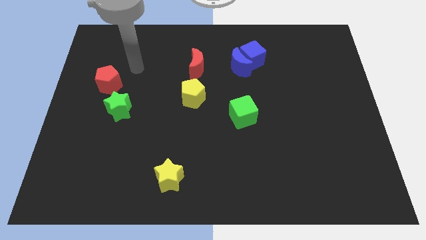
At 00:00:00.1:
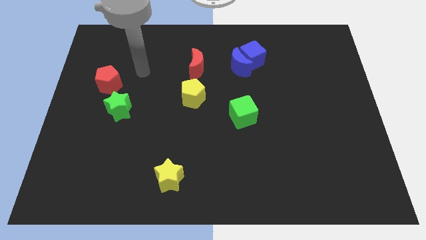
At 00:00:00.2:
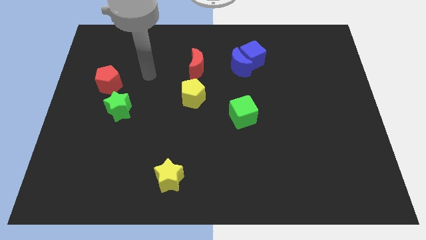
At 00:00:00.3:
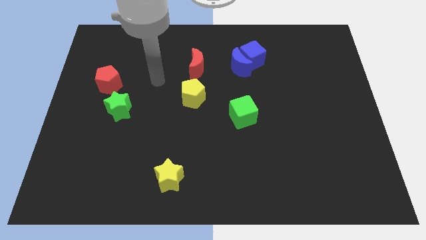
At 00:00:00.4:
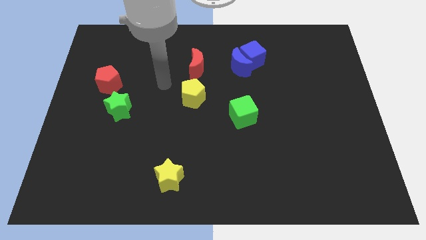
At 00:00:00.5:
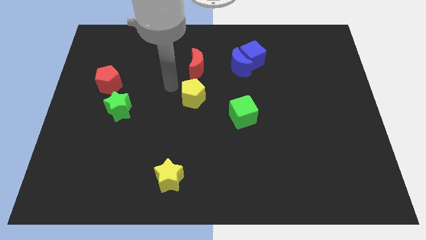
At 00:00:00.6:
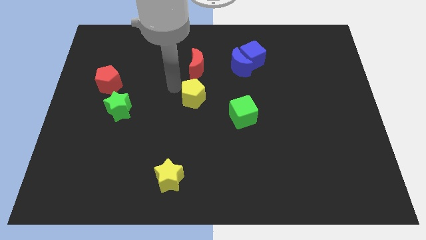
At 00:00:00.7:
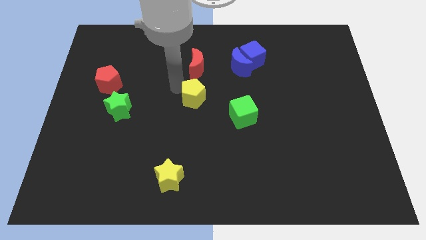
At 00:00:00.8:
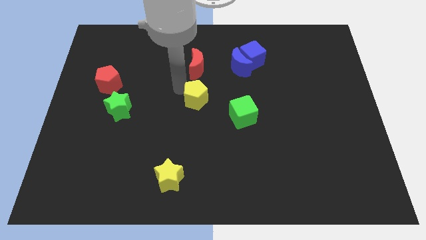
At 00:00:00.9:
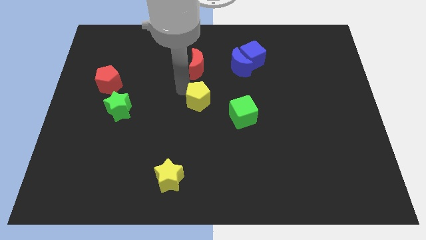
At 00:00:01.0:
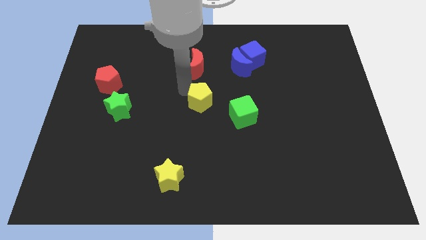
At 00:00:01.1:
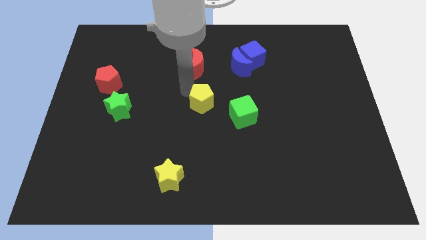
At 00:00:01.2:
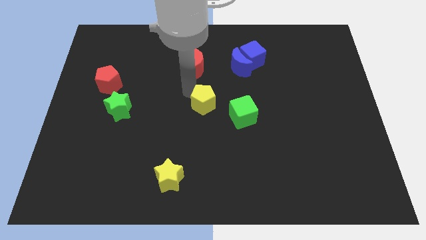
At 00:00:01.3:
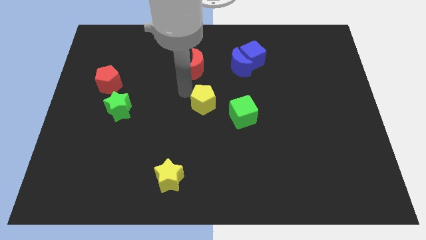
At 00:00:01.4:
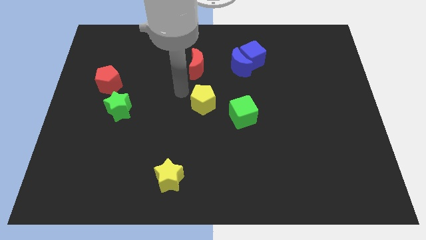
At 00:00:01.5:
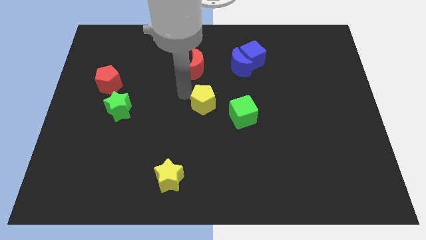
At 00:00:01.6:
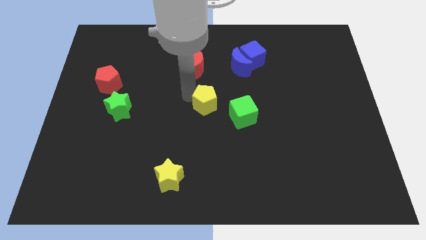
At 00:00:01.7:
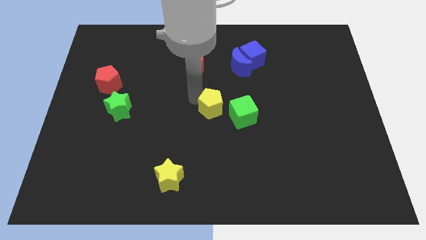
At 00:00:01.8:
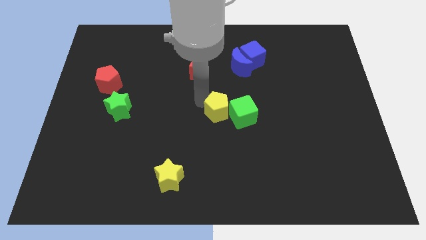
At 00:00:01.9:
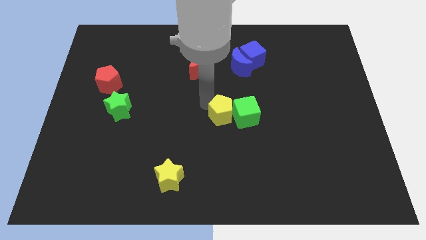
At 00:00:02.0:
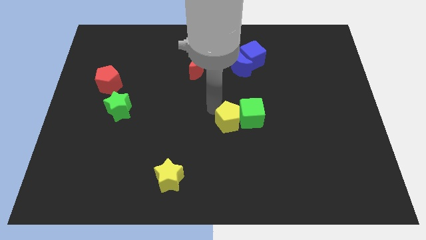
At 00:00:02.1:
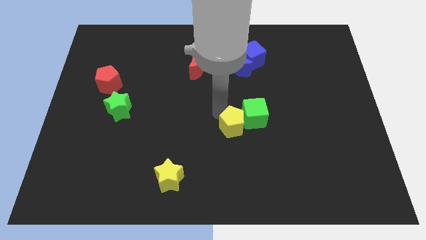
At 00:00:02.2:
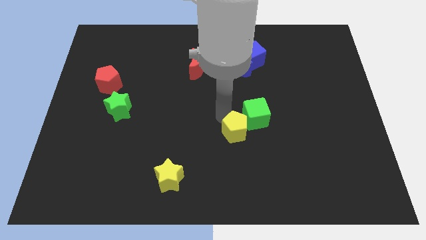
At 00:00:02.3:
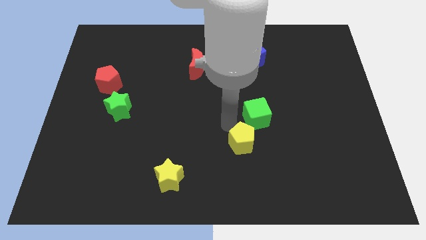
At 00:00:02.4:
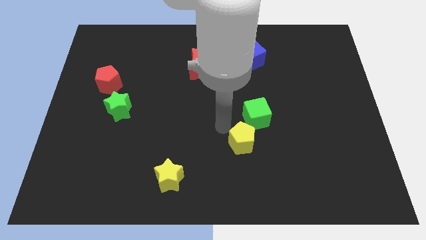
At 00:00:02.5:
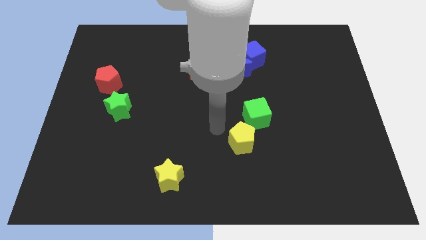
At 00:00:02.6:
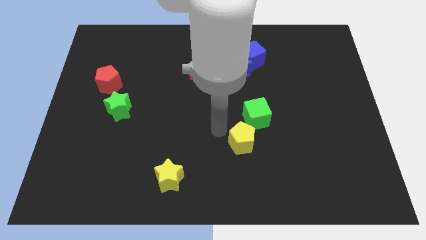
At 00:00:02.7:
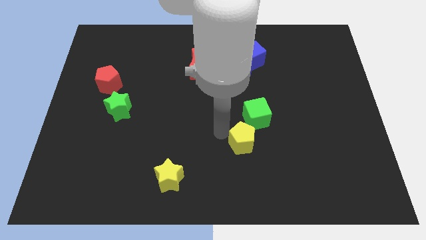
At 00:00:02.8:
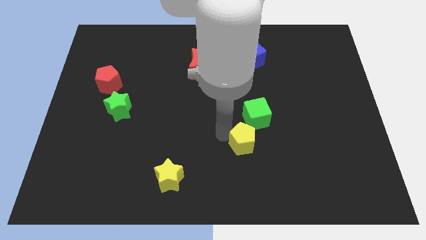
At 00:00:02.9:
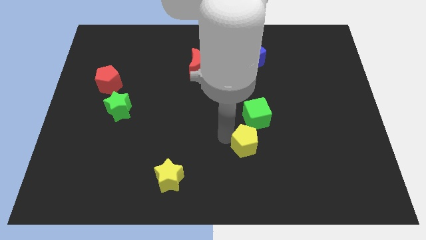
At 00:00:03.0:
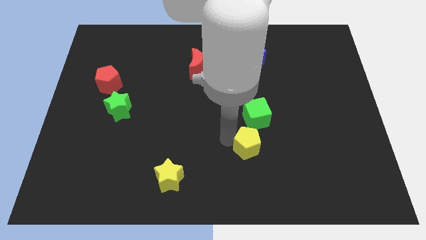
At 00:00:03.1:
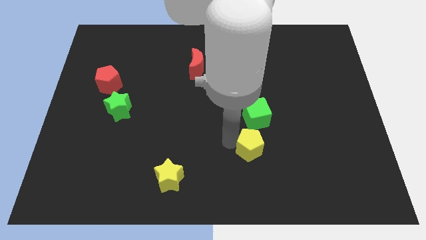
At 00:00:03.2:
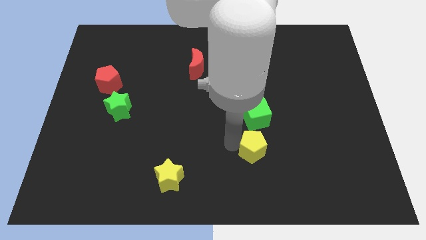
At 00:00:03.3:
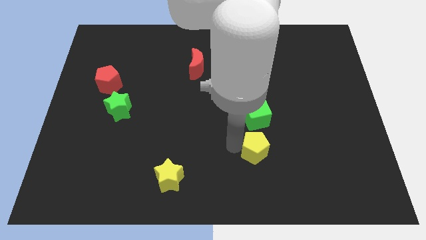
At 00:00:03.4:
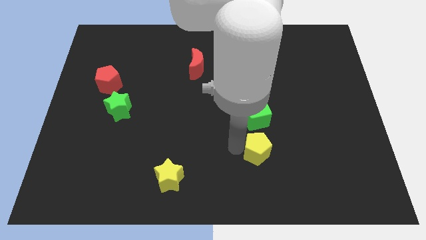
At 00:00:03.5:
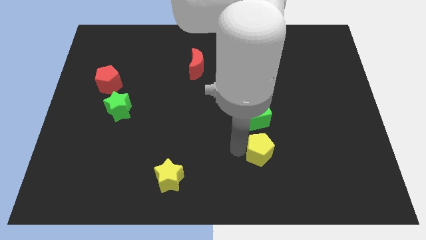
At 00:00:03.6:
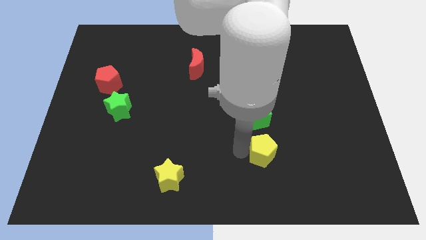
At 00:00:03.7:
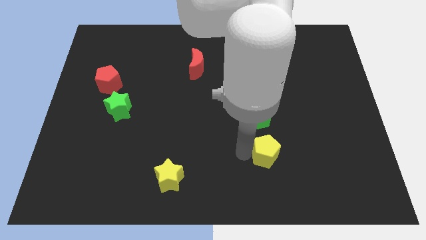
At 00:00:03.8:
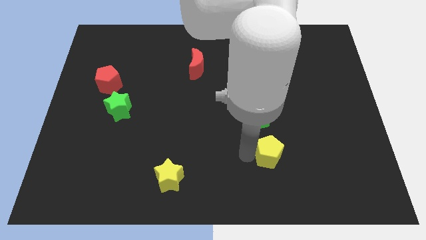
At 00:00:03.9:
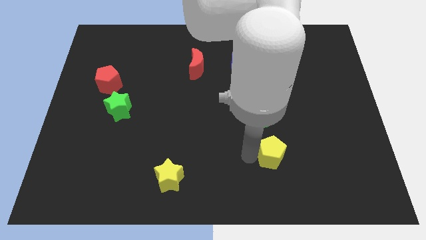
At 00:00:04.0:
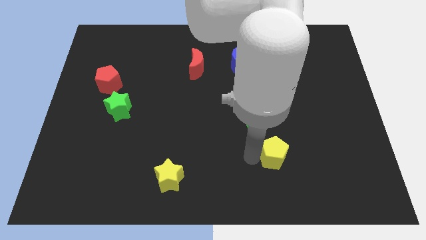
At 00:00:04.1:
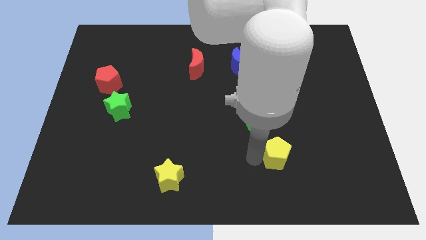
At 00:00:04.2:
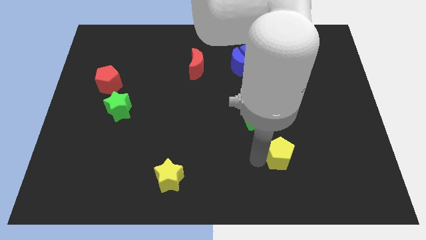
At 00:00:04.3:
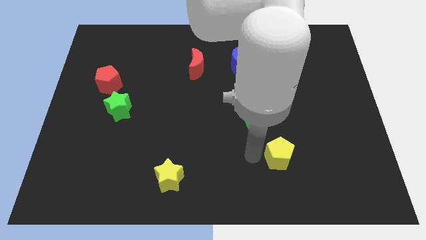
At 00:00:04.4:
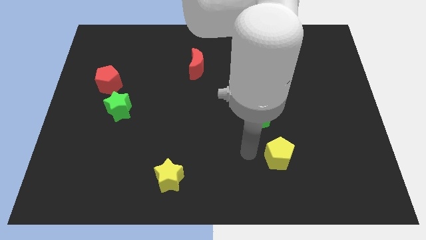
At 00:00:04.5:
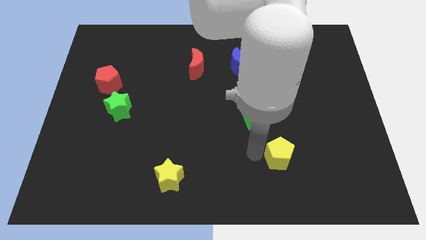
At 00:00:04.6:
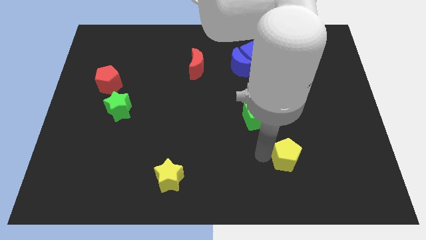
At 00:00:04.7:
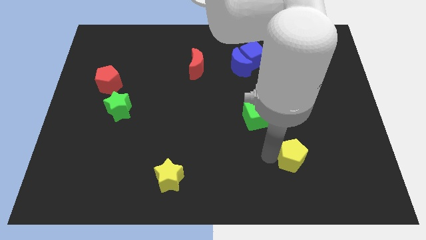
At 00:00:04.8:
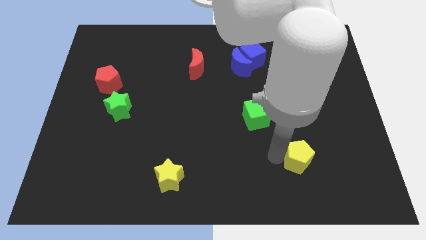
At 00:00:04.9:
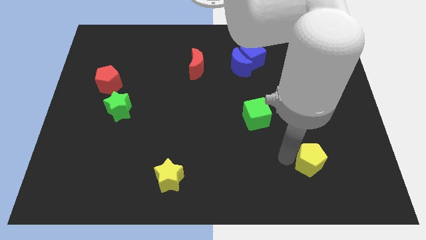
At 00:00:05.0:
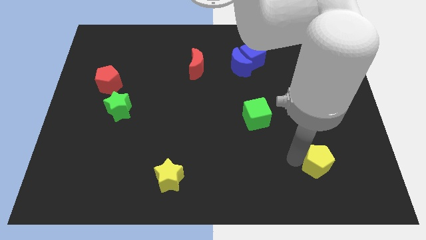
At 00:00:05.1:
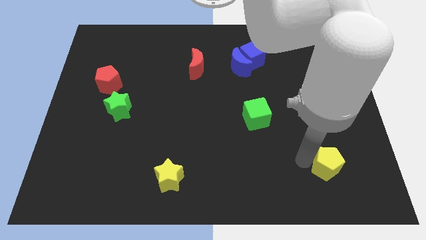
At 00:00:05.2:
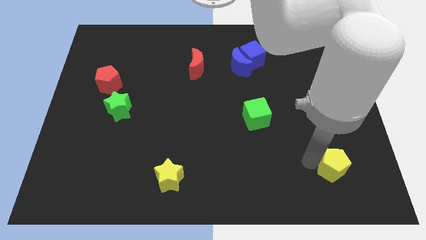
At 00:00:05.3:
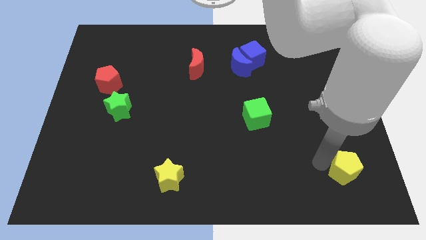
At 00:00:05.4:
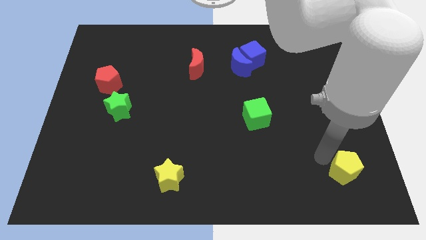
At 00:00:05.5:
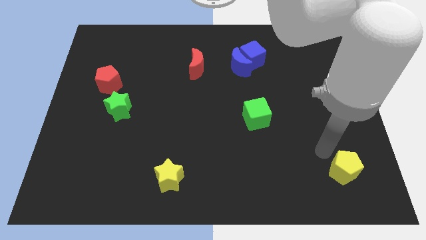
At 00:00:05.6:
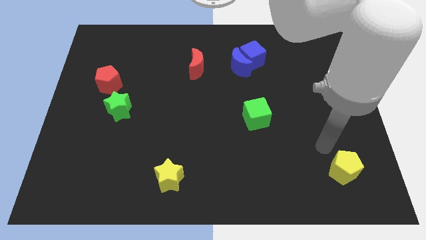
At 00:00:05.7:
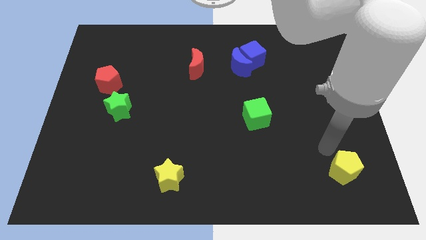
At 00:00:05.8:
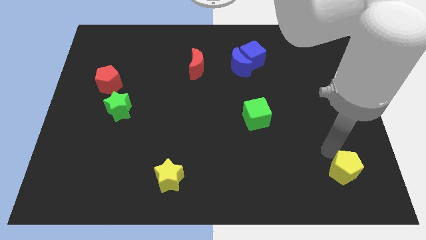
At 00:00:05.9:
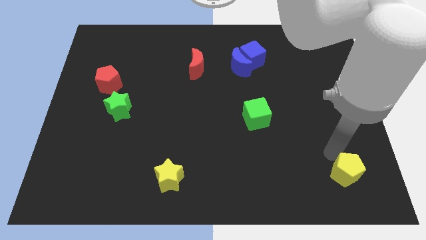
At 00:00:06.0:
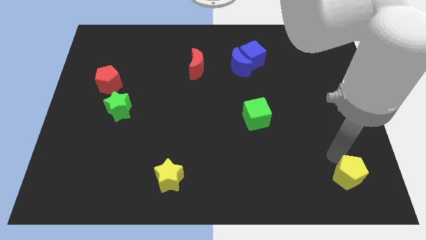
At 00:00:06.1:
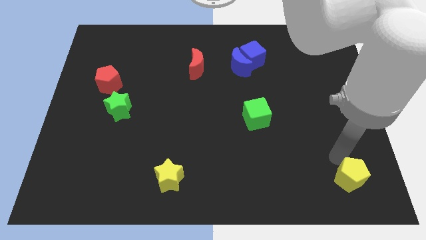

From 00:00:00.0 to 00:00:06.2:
put the yellow pentagon to the lower right corner
